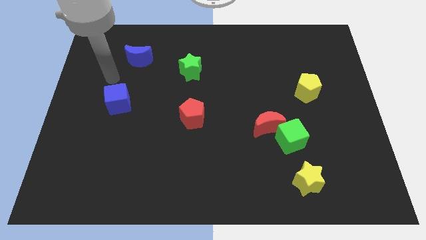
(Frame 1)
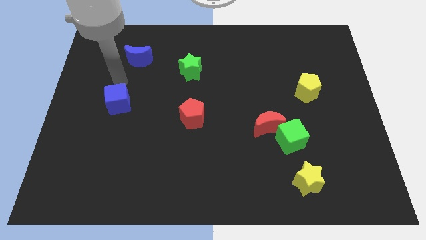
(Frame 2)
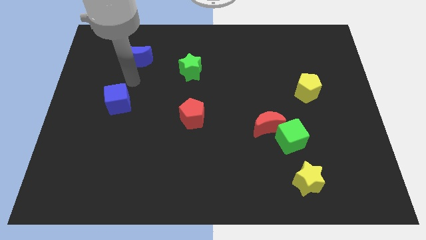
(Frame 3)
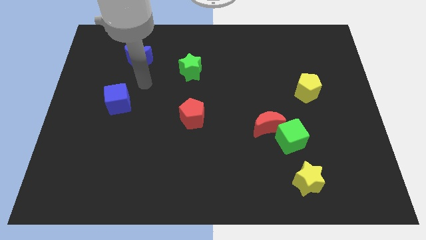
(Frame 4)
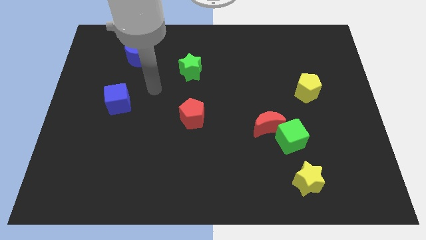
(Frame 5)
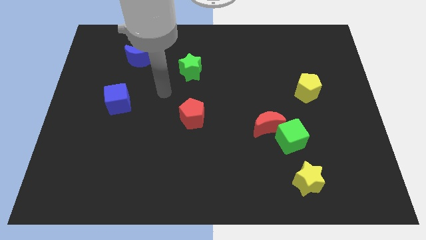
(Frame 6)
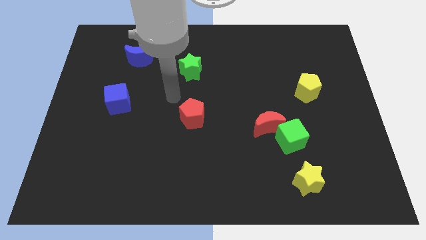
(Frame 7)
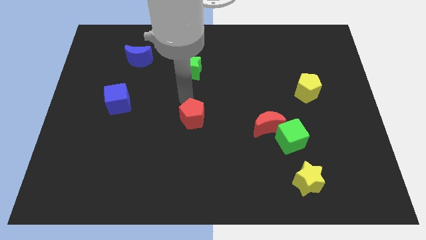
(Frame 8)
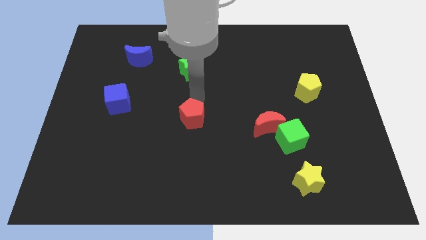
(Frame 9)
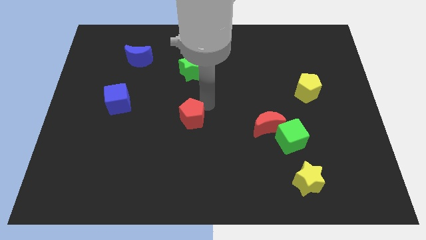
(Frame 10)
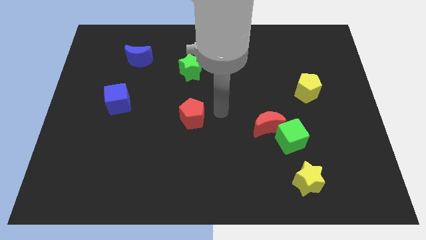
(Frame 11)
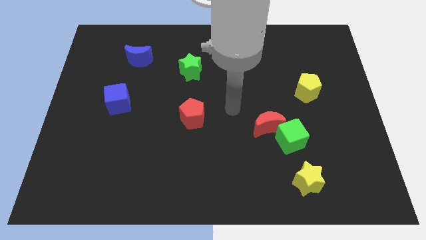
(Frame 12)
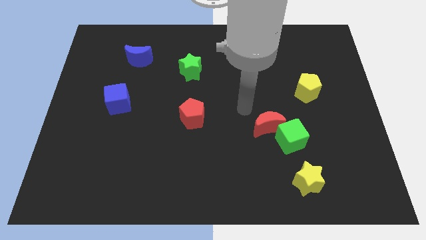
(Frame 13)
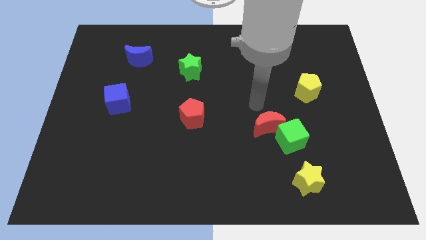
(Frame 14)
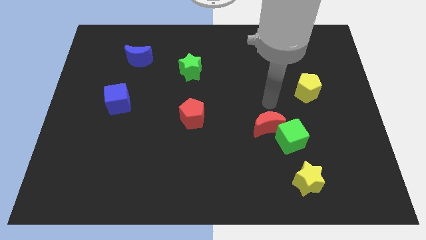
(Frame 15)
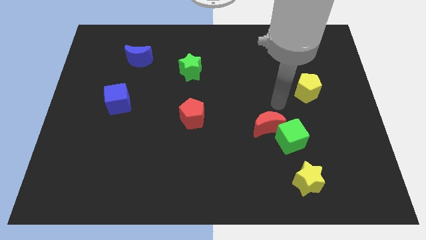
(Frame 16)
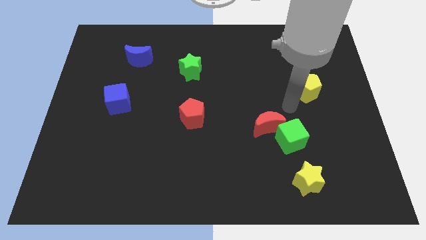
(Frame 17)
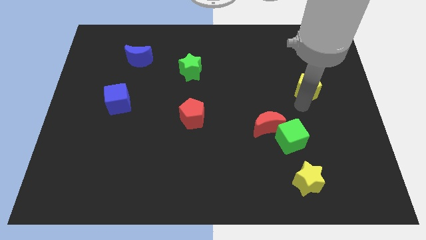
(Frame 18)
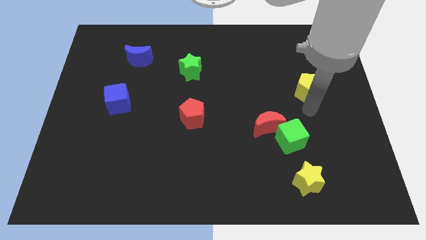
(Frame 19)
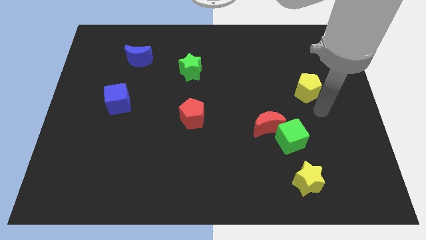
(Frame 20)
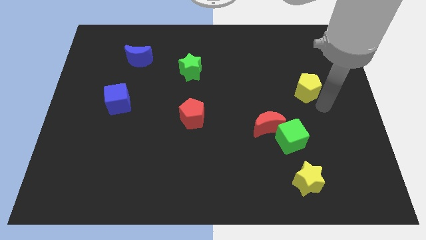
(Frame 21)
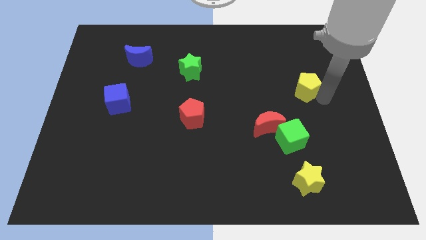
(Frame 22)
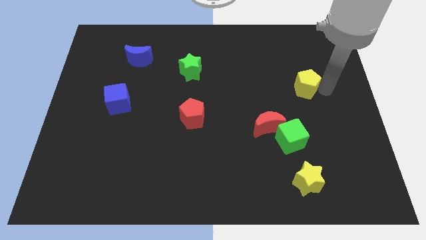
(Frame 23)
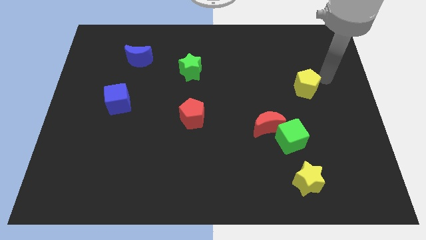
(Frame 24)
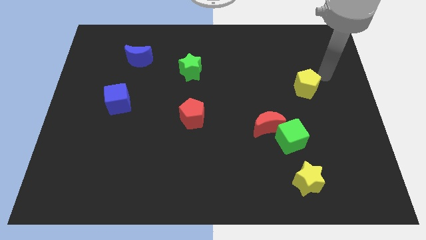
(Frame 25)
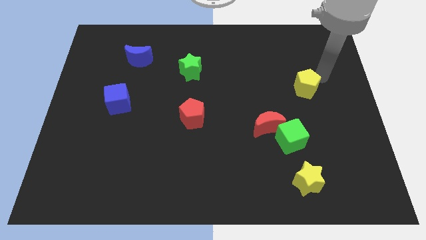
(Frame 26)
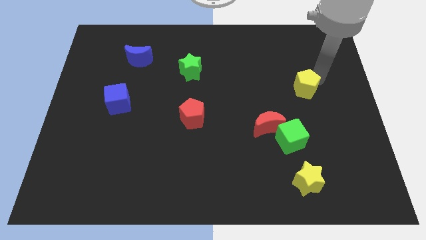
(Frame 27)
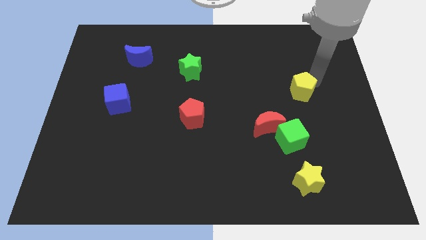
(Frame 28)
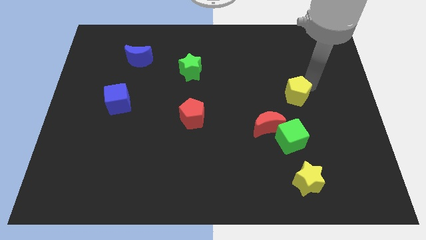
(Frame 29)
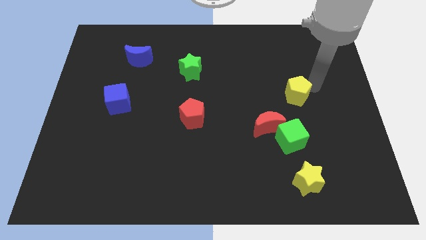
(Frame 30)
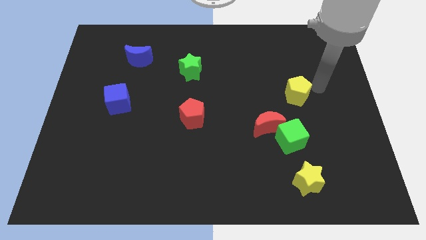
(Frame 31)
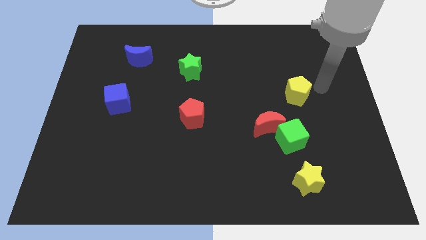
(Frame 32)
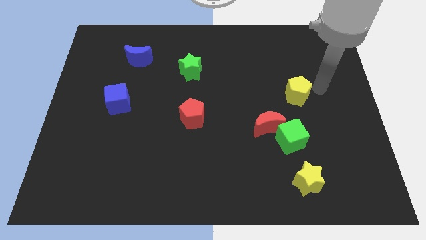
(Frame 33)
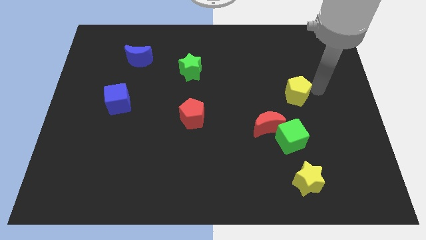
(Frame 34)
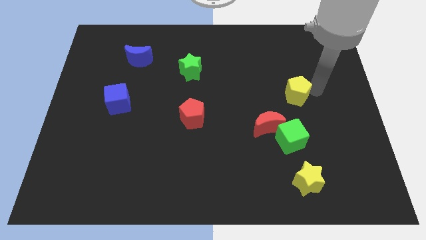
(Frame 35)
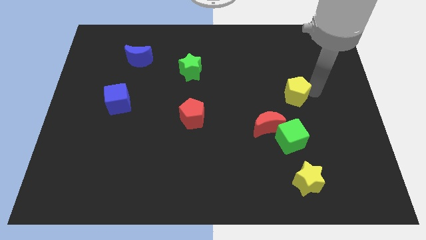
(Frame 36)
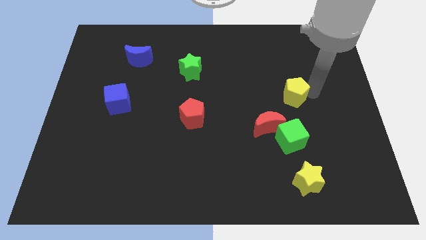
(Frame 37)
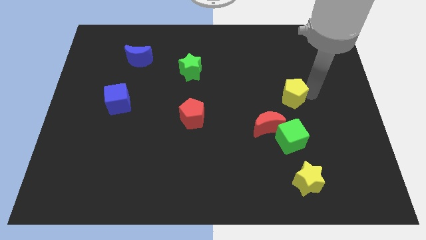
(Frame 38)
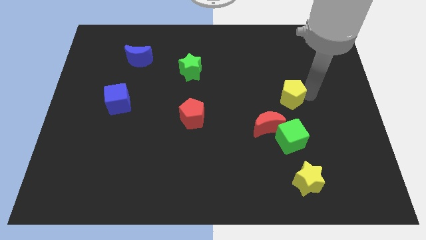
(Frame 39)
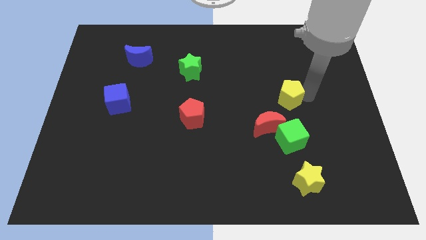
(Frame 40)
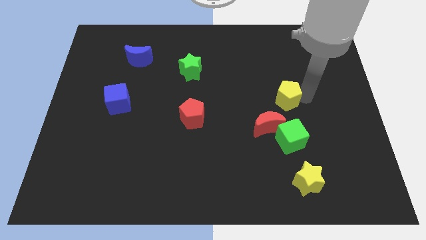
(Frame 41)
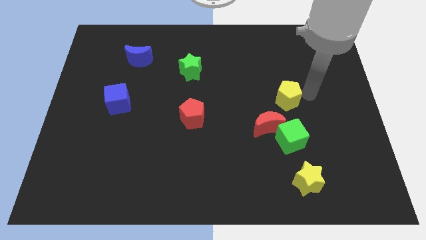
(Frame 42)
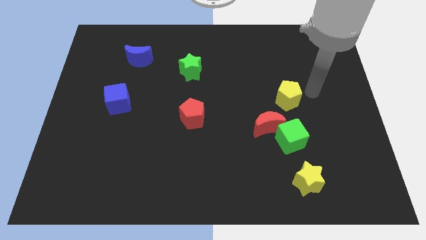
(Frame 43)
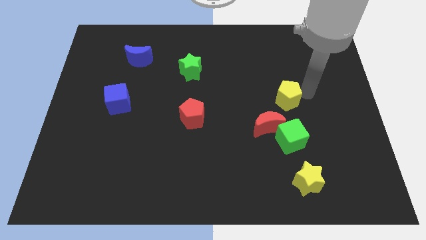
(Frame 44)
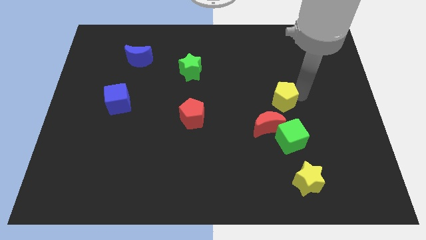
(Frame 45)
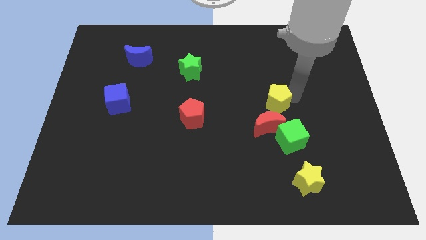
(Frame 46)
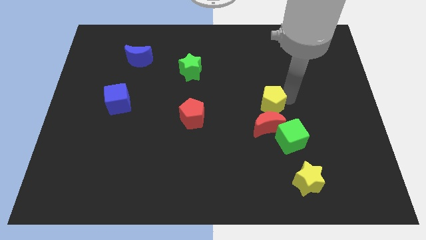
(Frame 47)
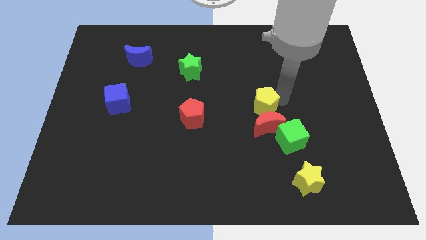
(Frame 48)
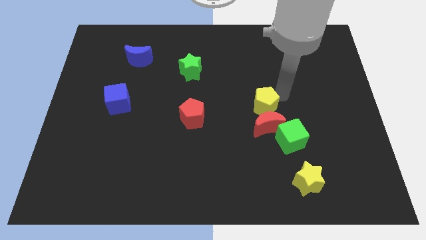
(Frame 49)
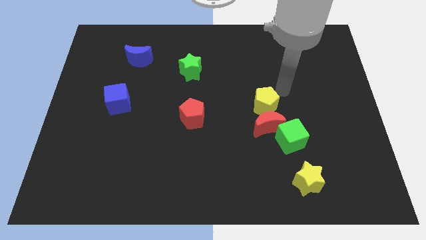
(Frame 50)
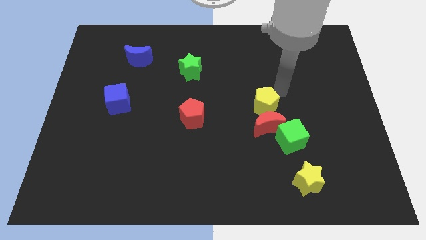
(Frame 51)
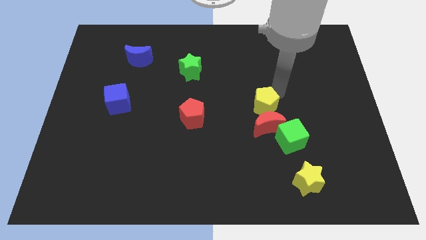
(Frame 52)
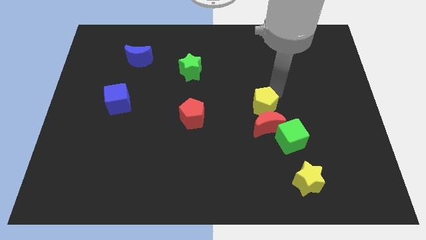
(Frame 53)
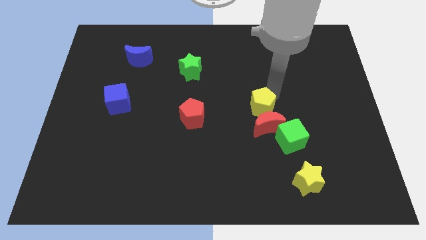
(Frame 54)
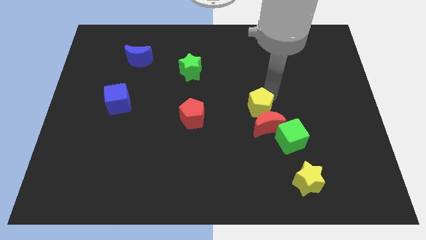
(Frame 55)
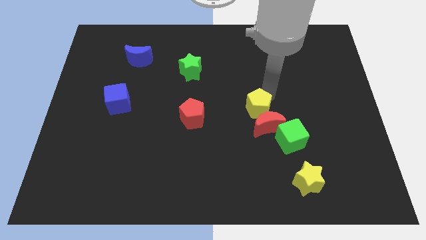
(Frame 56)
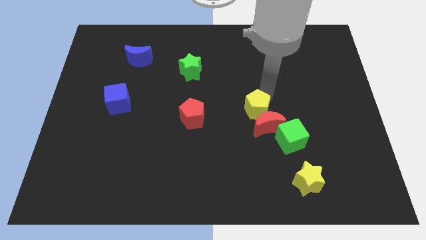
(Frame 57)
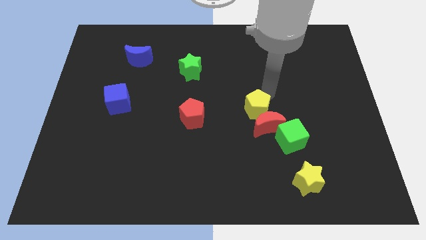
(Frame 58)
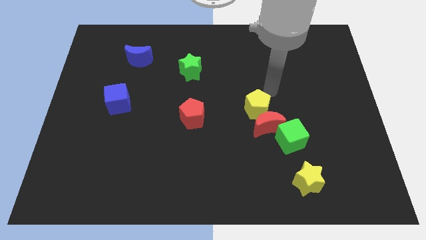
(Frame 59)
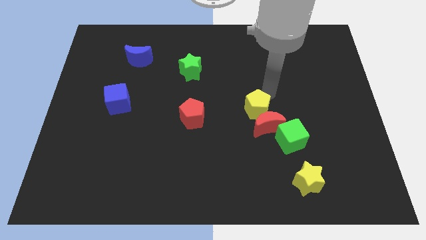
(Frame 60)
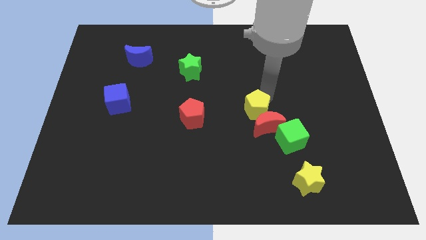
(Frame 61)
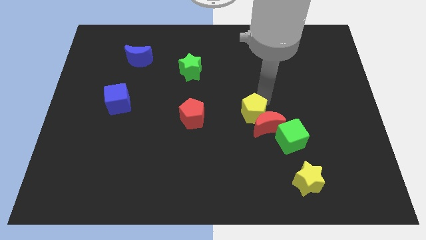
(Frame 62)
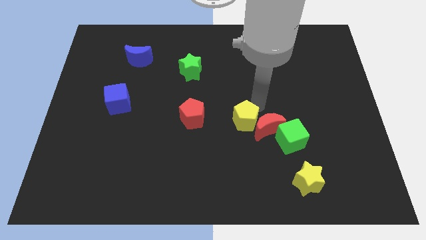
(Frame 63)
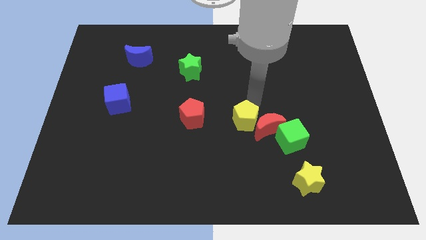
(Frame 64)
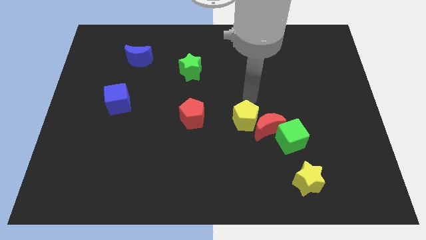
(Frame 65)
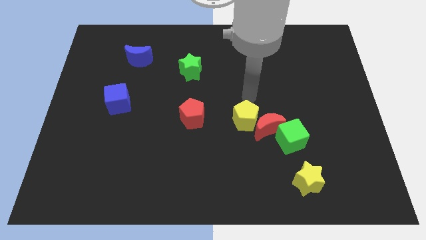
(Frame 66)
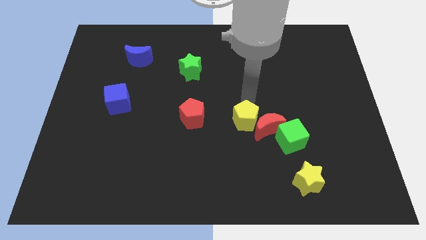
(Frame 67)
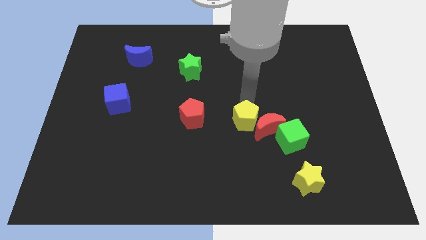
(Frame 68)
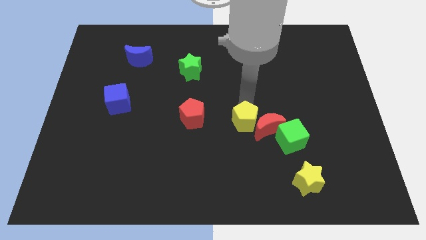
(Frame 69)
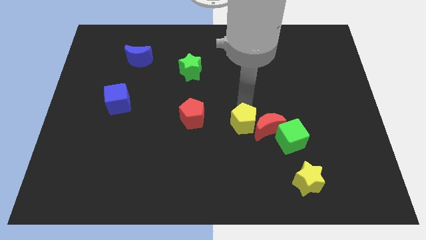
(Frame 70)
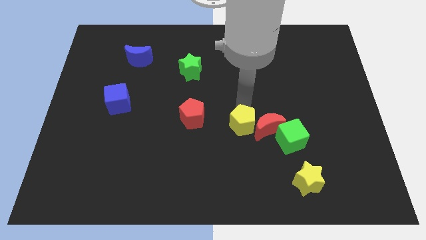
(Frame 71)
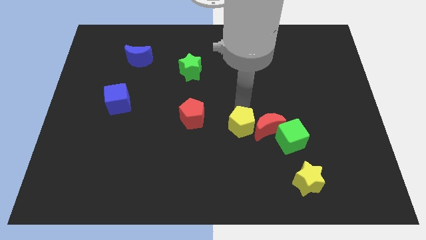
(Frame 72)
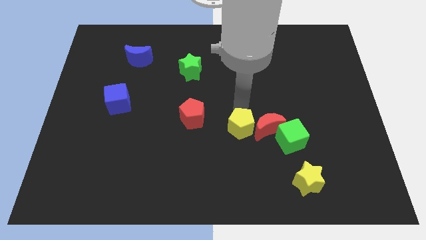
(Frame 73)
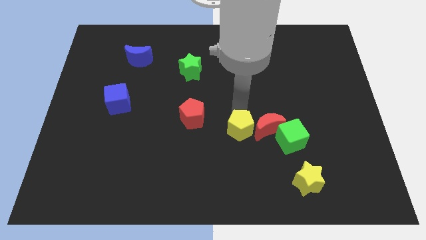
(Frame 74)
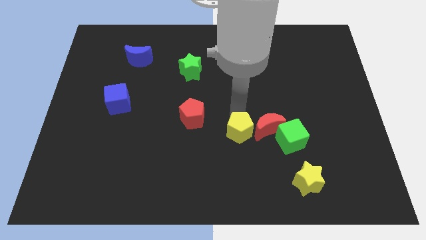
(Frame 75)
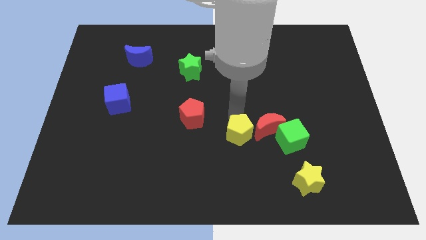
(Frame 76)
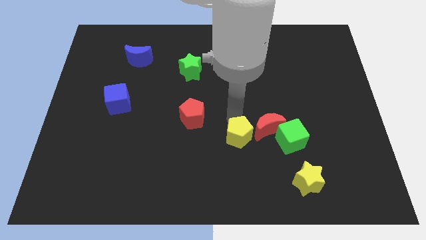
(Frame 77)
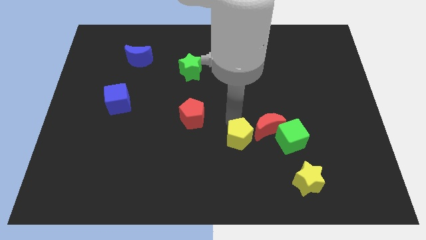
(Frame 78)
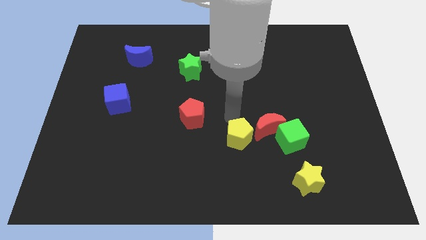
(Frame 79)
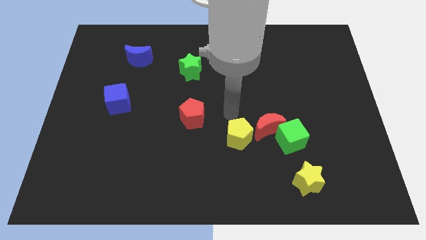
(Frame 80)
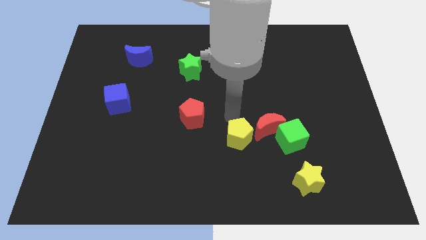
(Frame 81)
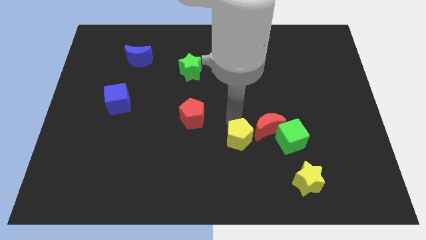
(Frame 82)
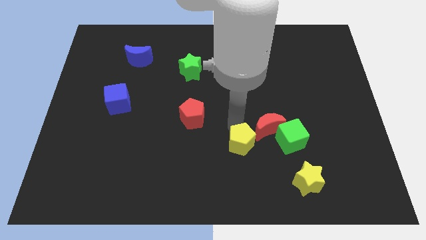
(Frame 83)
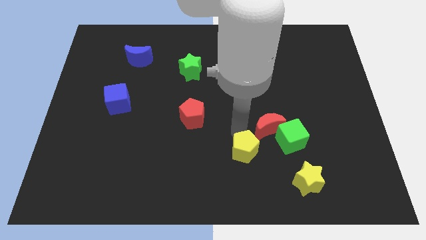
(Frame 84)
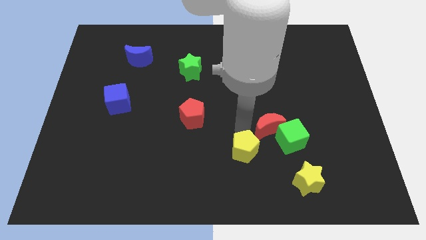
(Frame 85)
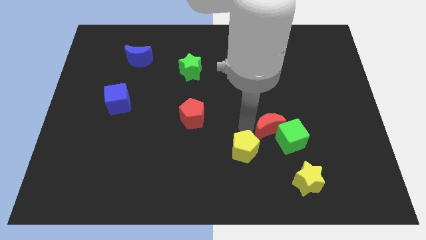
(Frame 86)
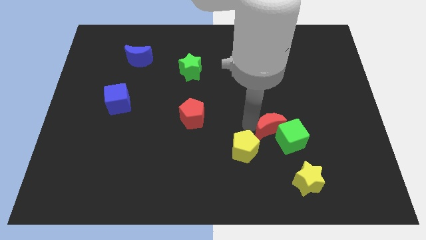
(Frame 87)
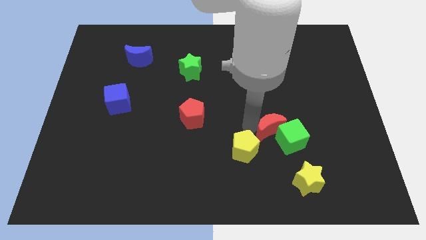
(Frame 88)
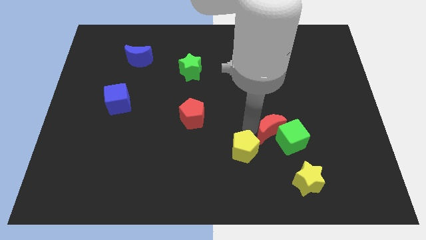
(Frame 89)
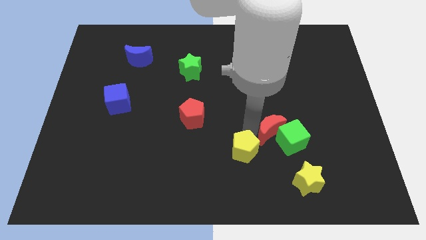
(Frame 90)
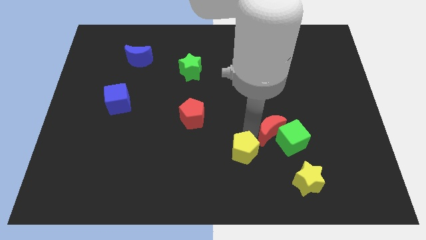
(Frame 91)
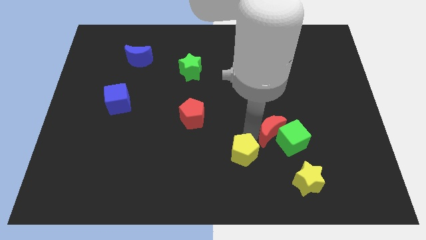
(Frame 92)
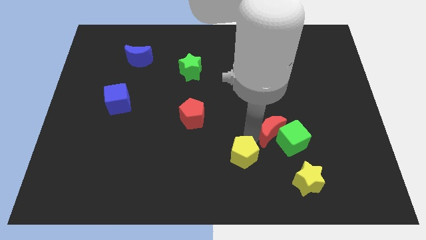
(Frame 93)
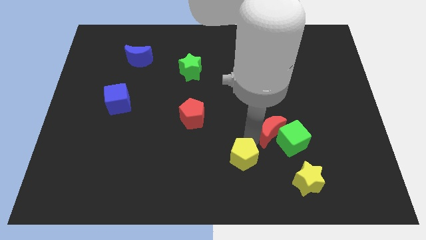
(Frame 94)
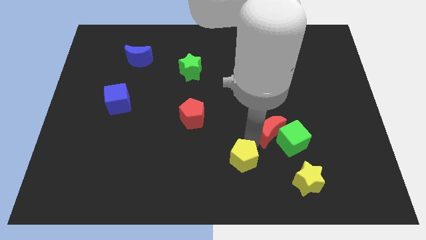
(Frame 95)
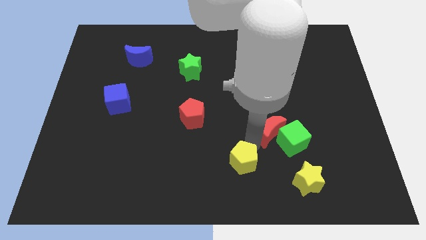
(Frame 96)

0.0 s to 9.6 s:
put the yellow pentagon to the bottom
